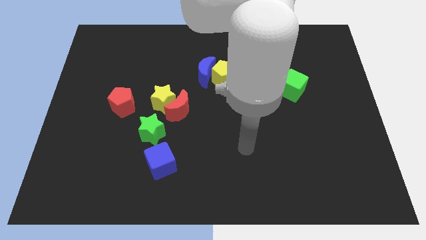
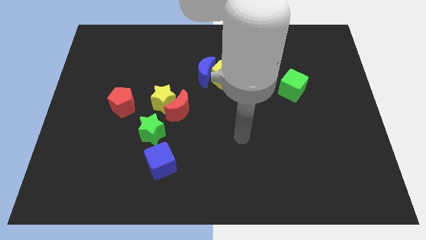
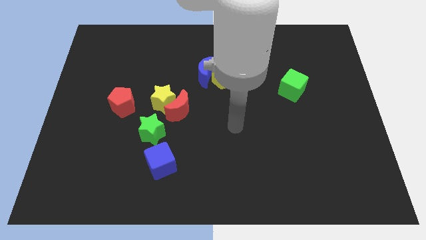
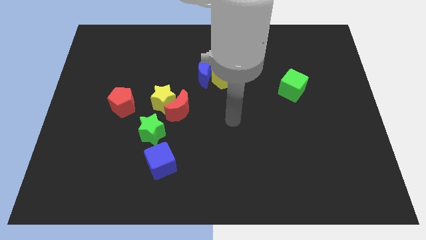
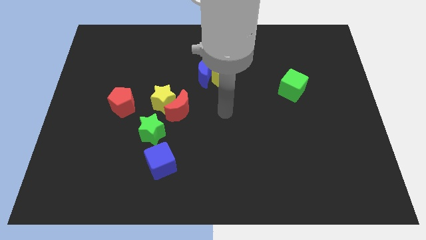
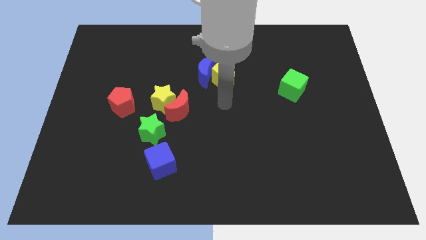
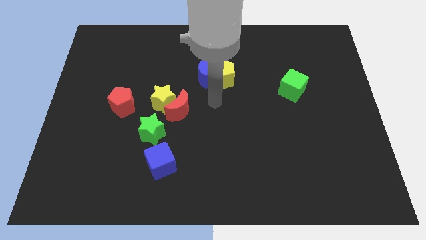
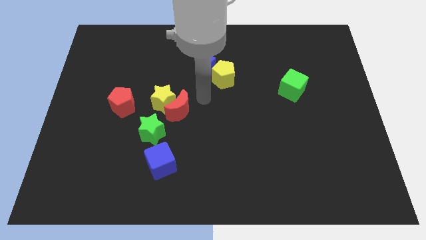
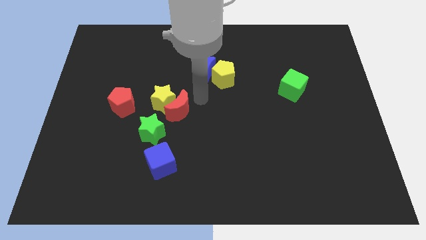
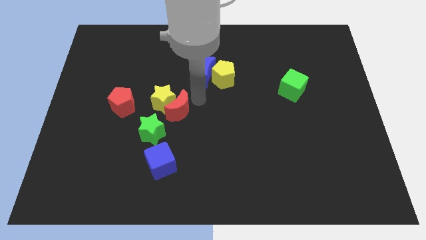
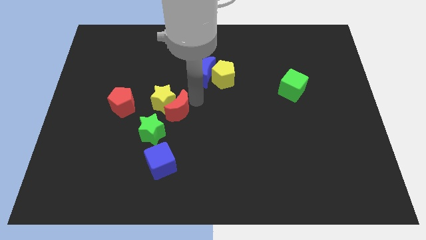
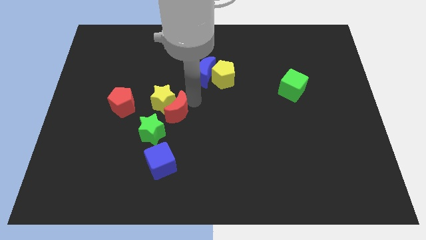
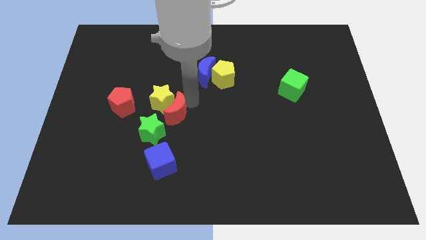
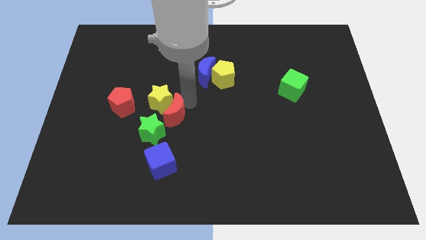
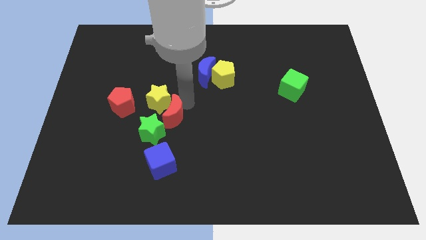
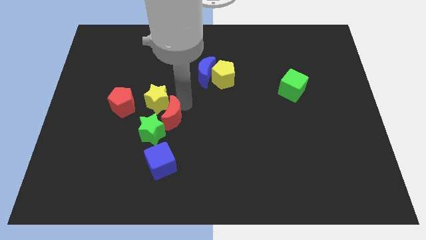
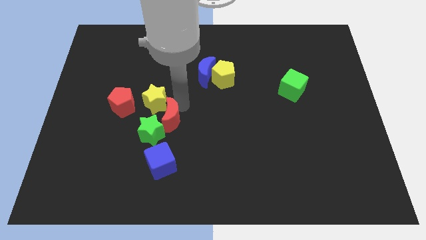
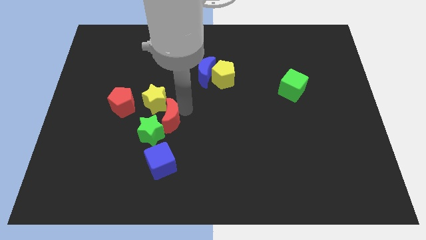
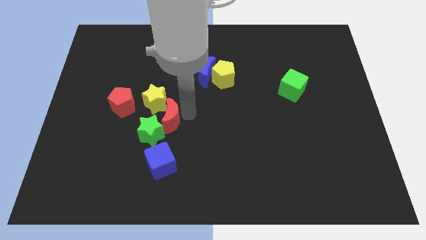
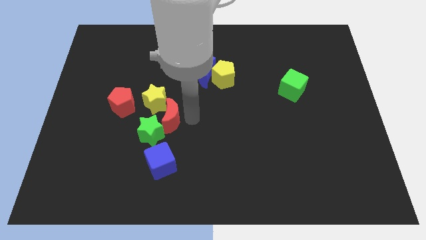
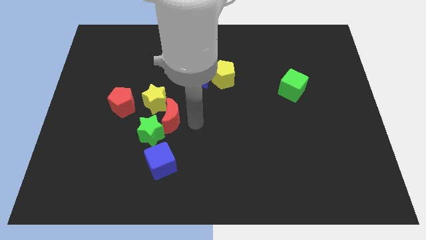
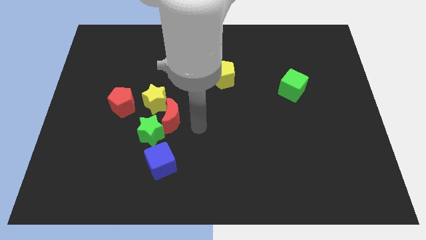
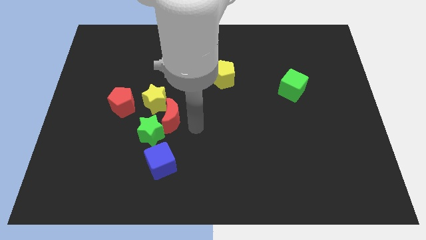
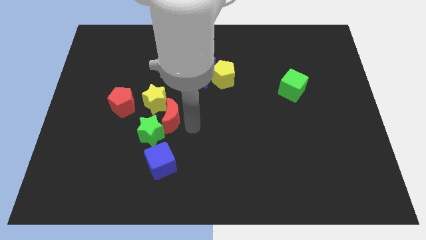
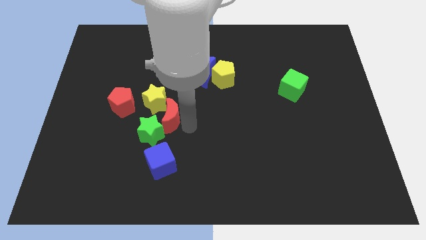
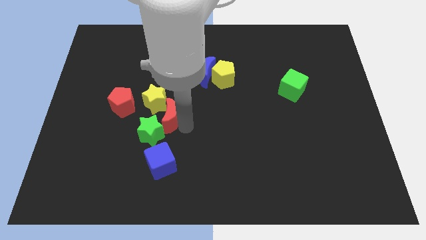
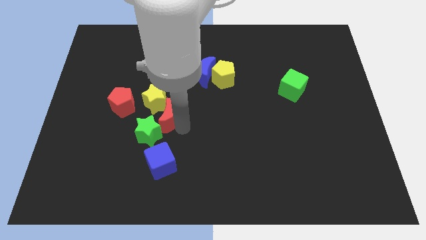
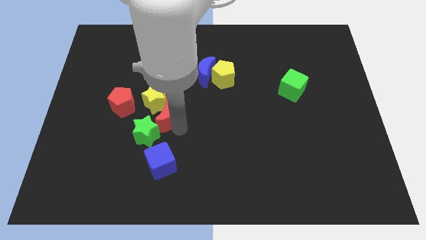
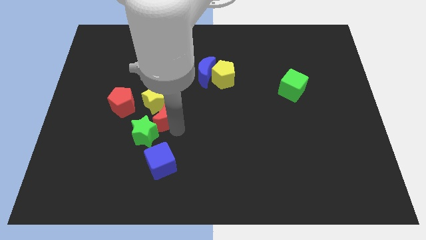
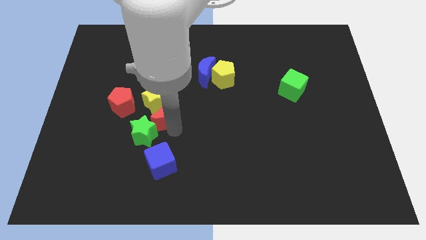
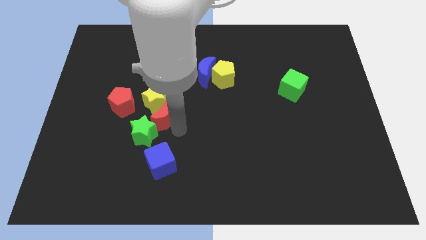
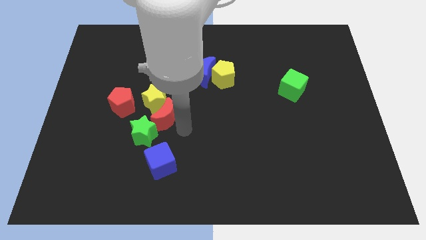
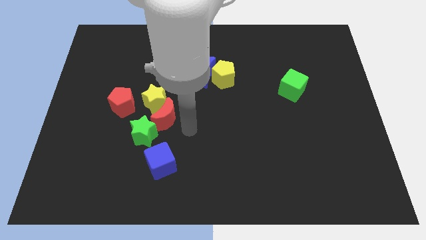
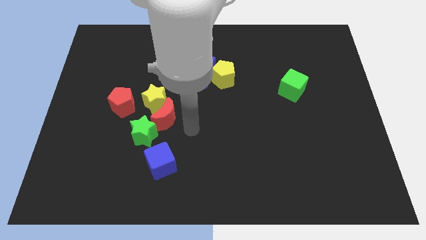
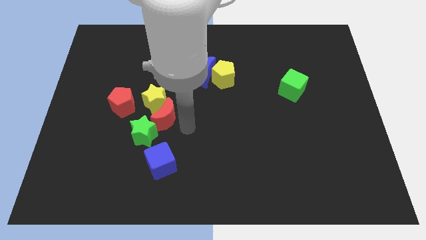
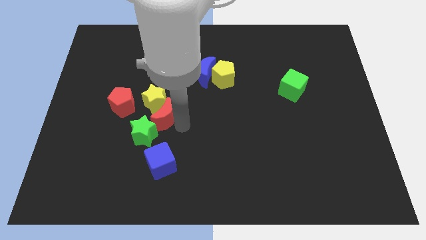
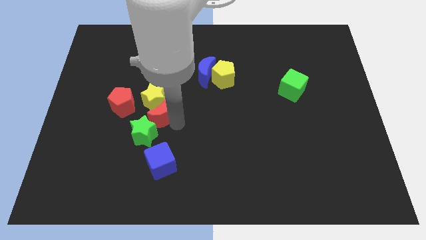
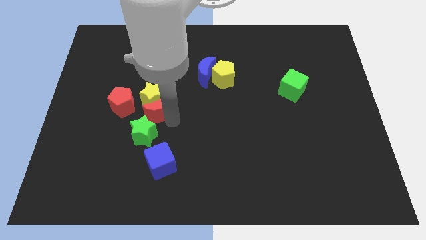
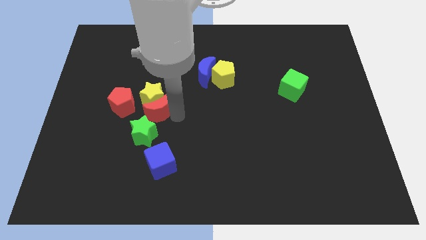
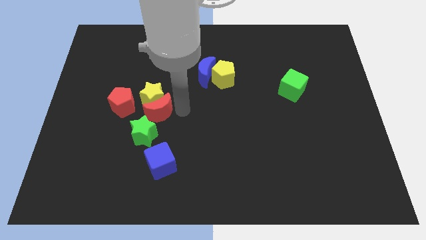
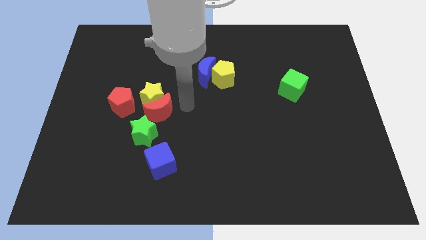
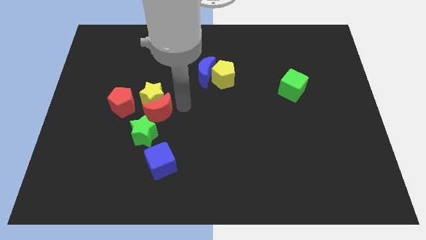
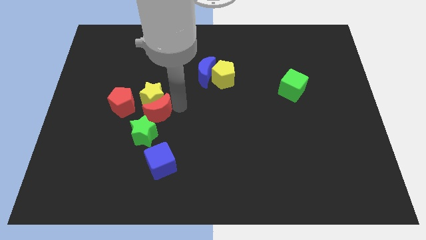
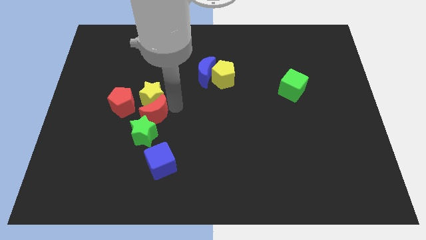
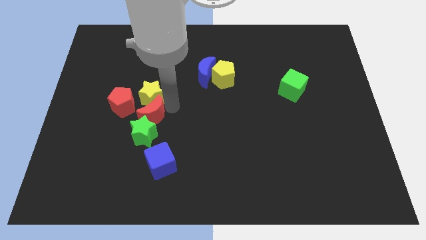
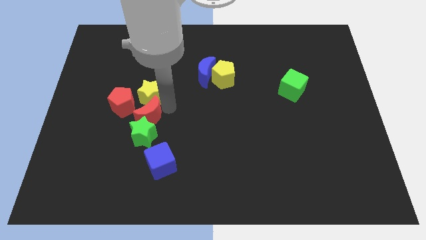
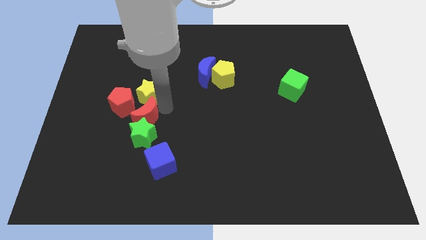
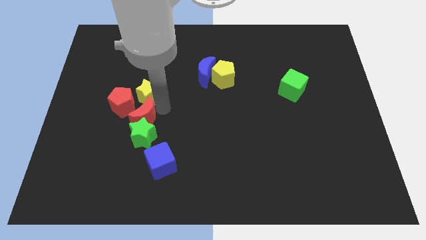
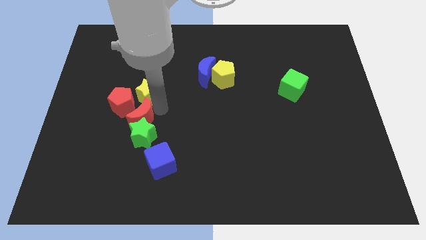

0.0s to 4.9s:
slightly slide the red moon diagonally downwards and to the left

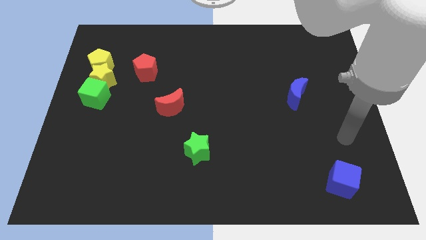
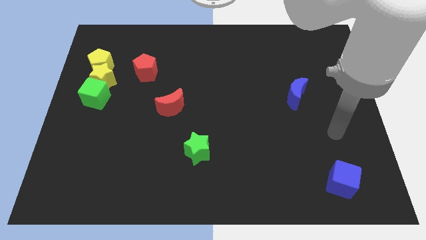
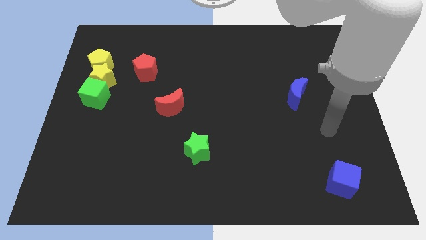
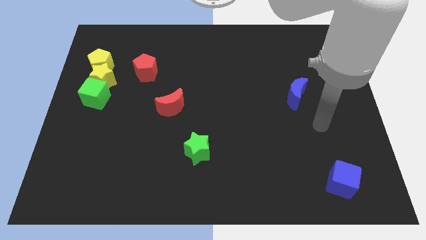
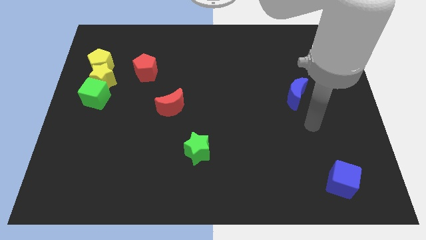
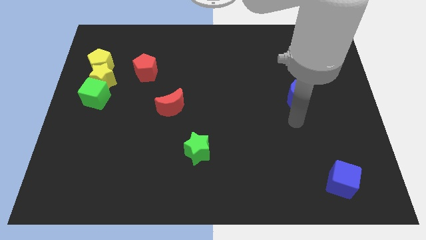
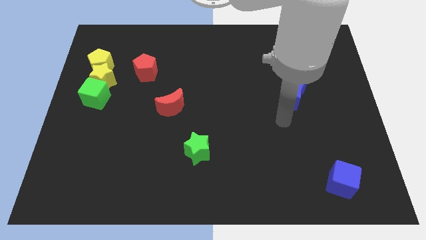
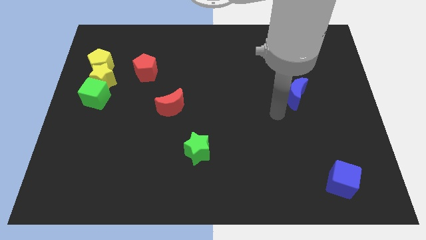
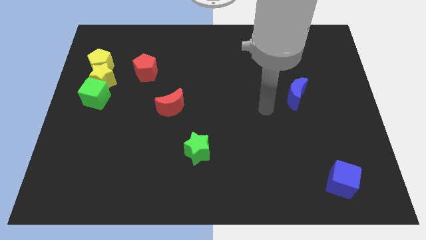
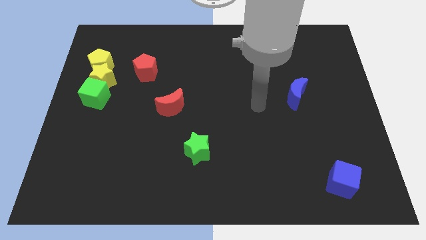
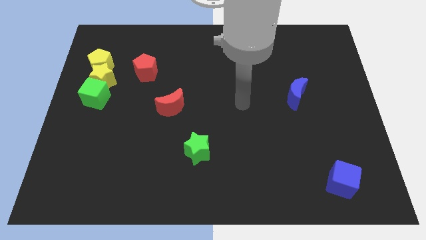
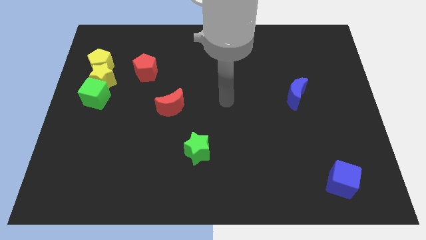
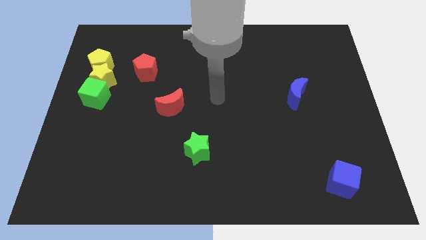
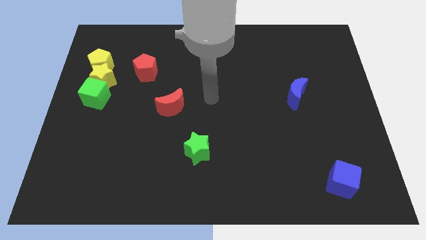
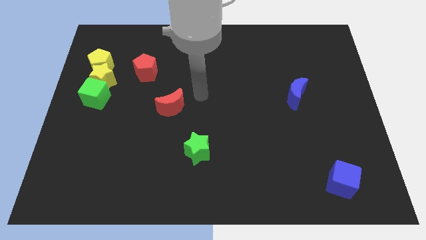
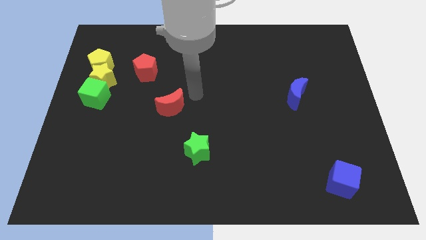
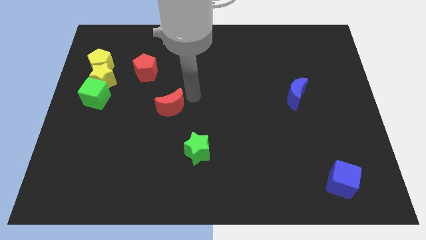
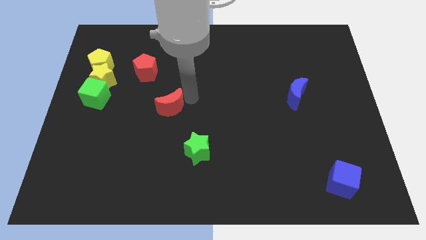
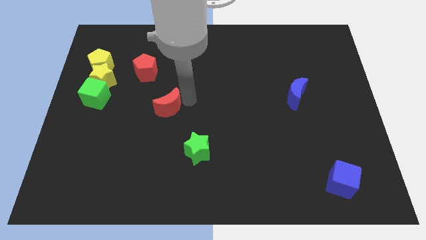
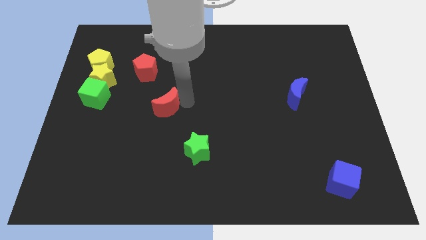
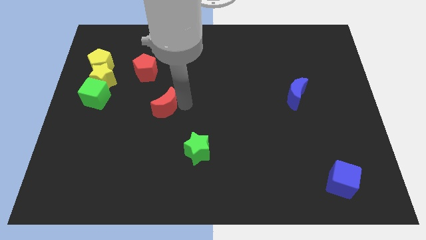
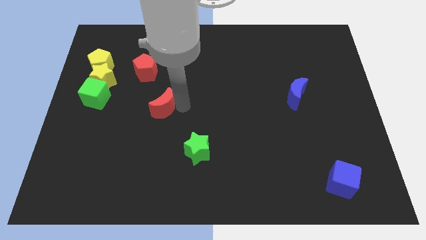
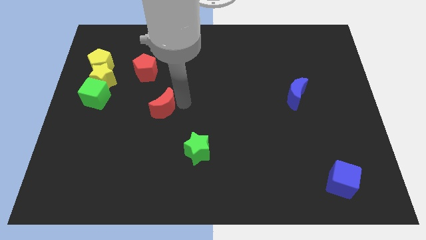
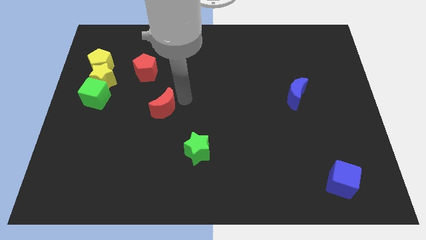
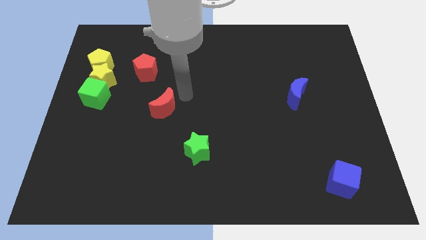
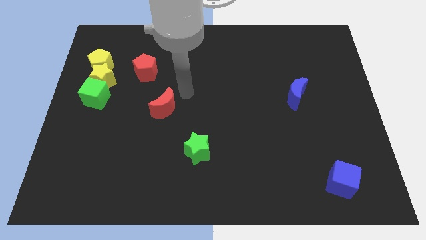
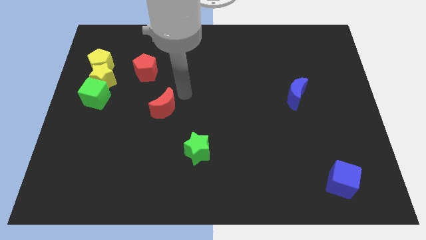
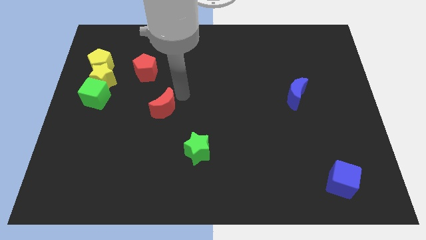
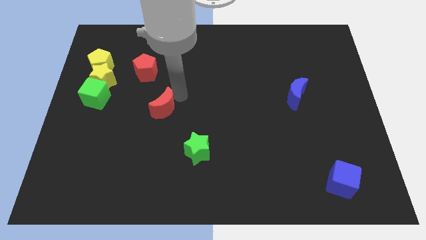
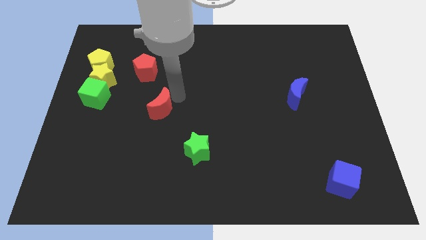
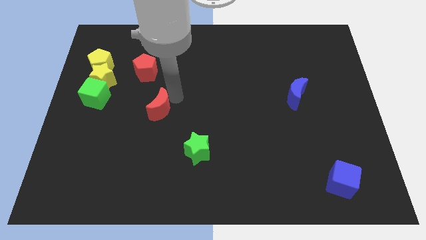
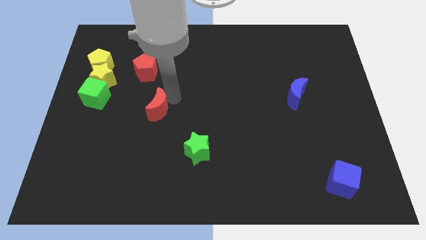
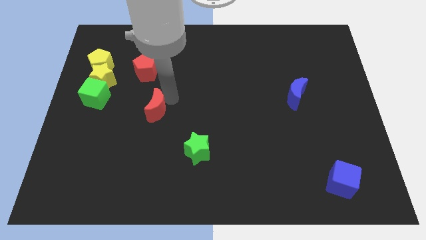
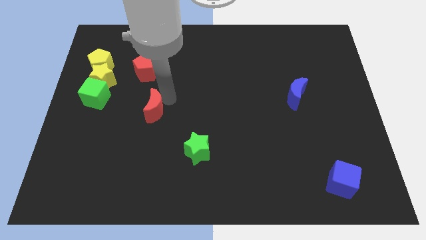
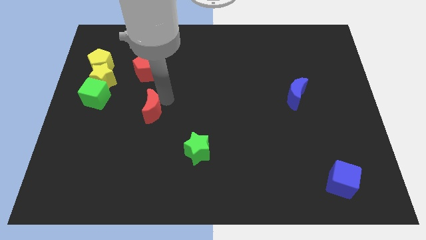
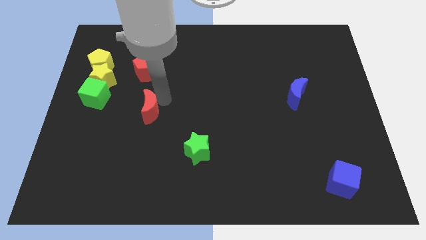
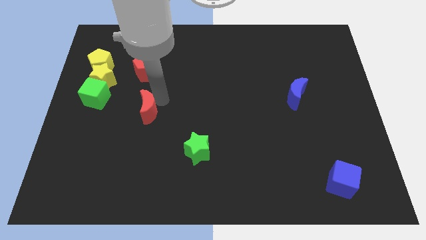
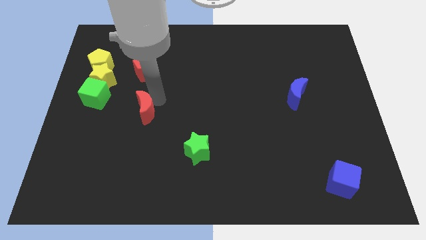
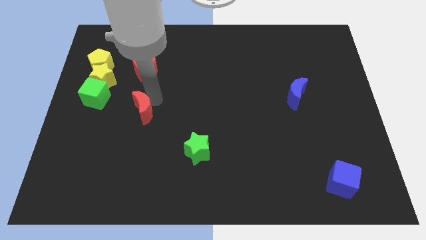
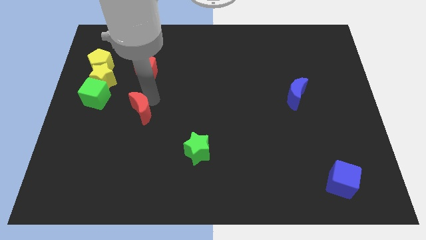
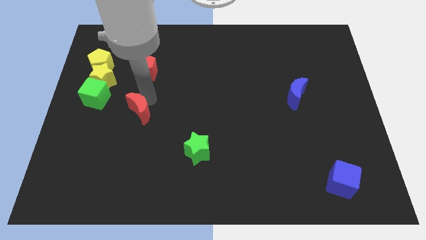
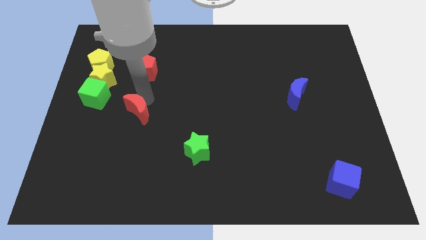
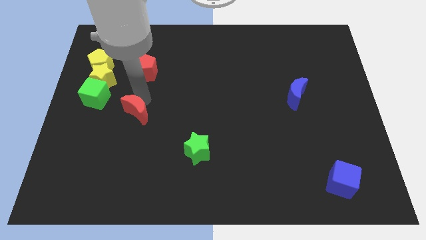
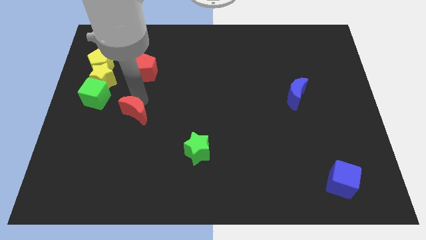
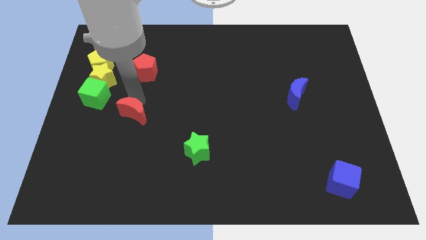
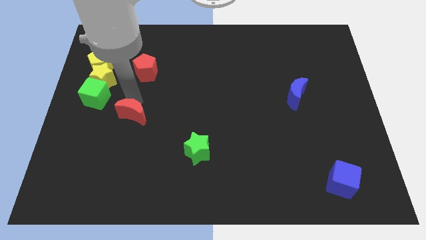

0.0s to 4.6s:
move the red moon somewhat downwards and to the left diagonally
